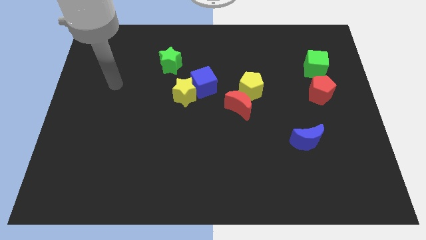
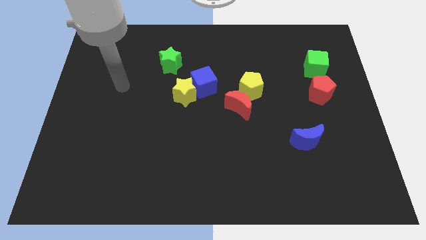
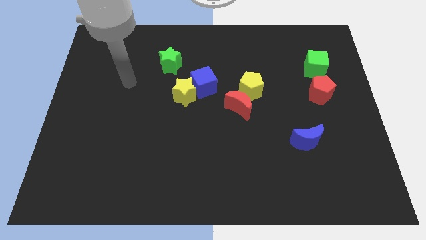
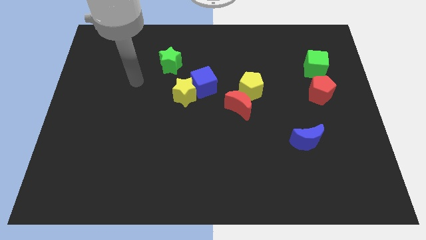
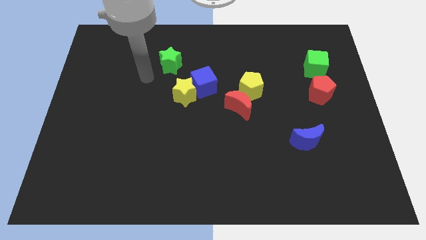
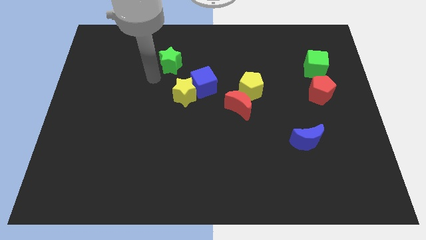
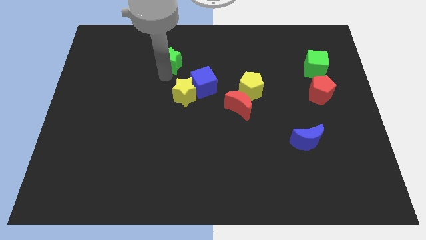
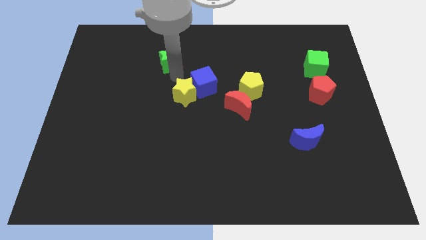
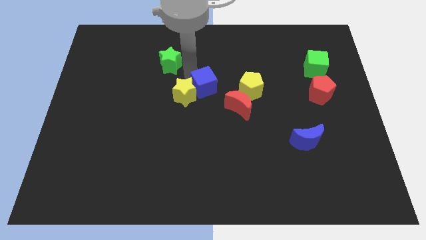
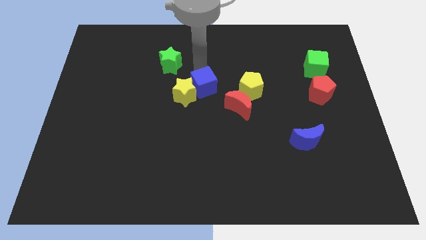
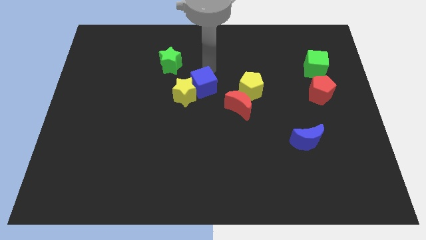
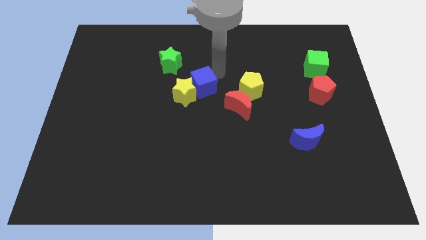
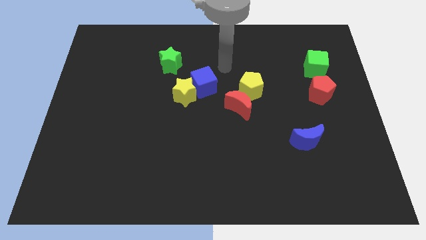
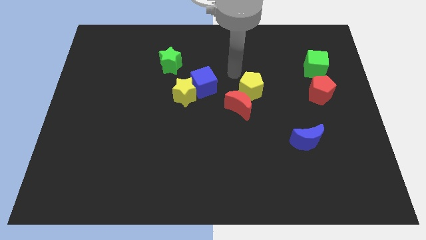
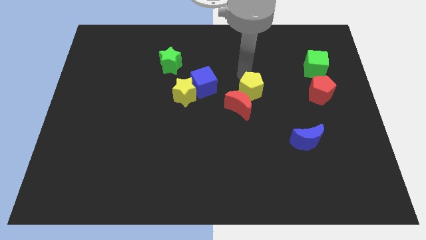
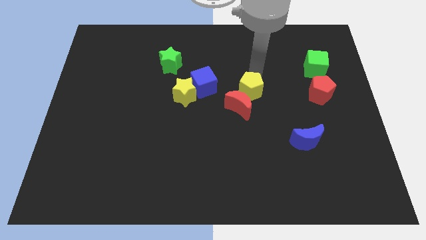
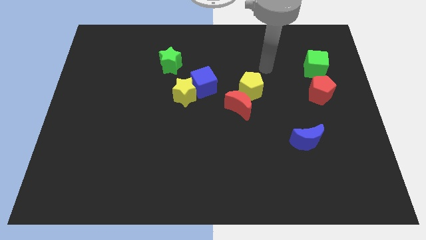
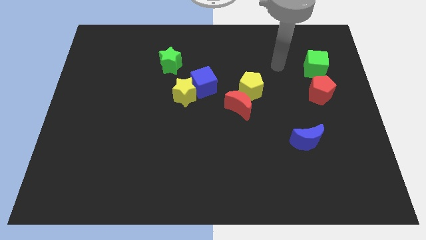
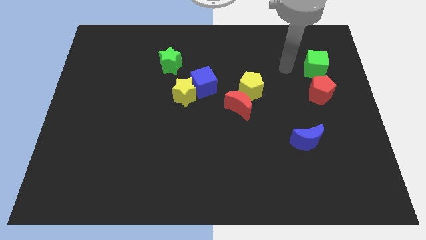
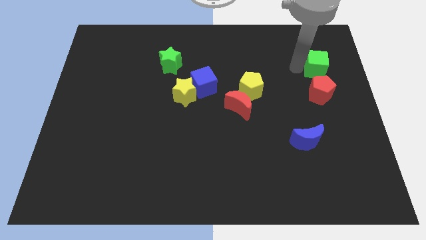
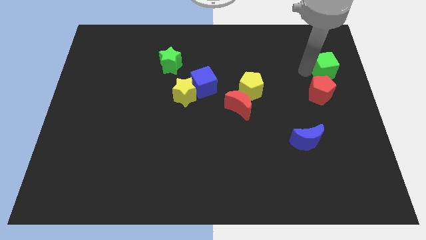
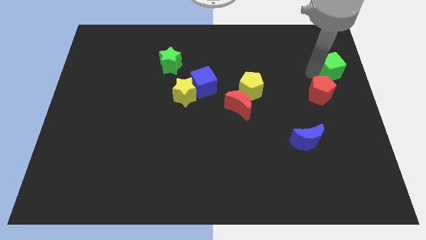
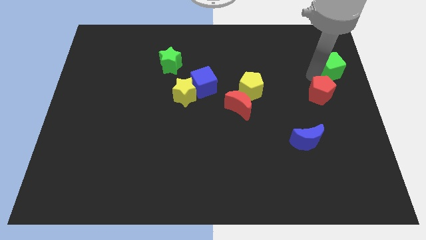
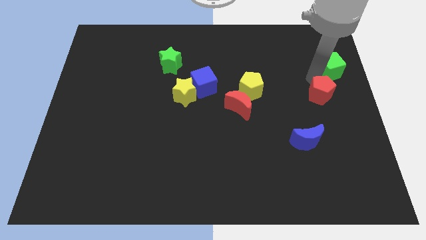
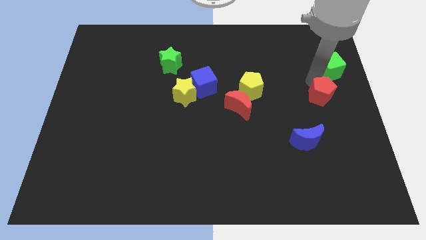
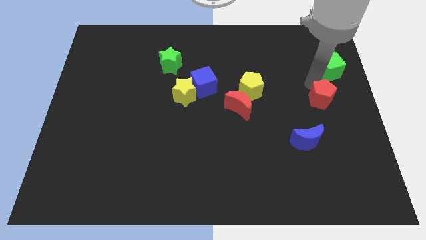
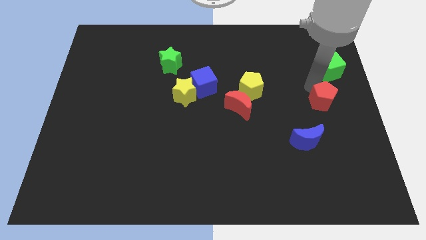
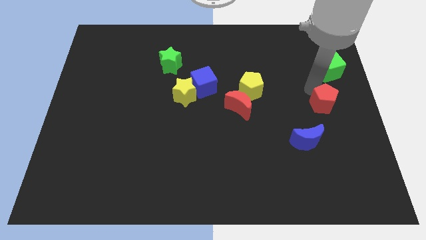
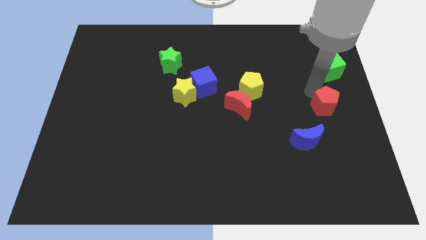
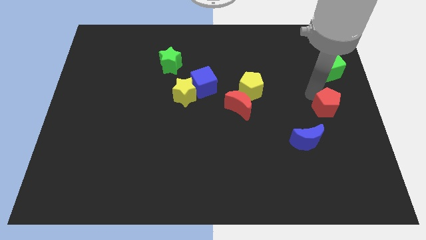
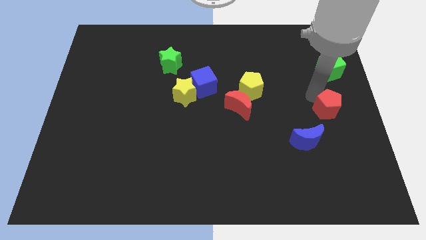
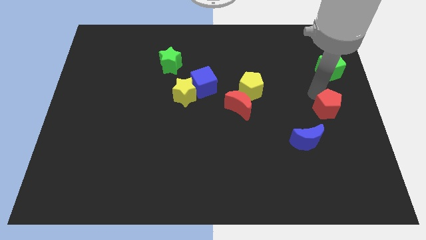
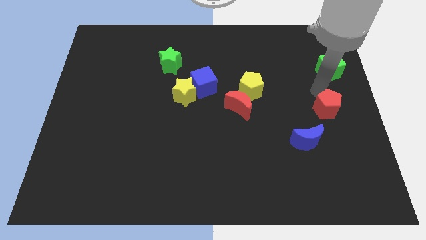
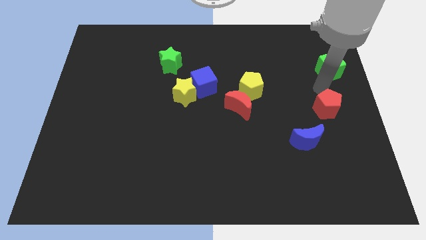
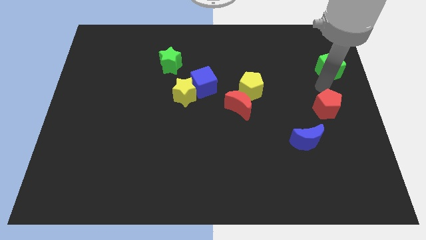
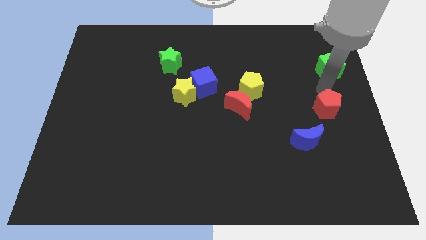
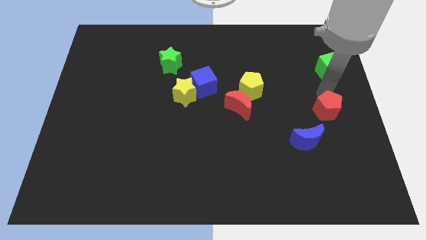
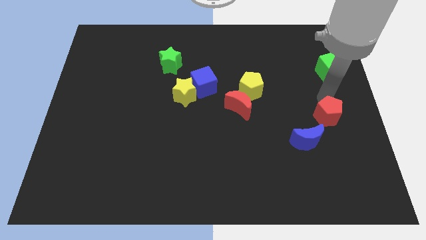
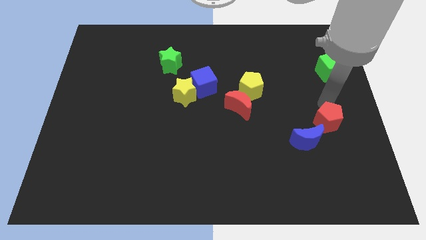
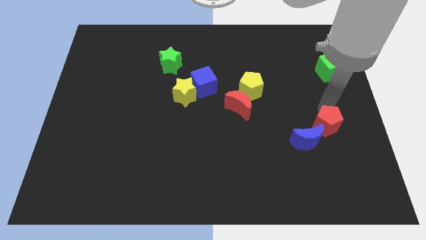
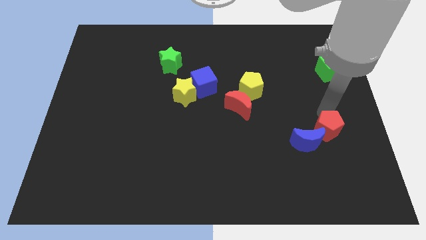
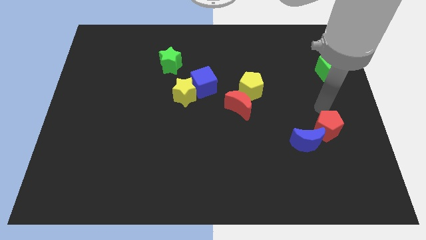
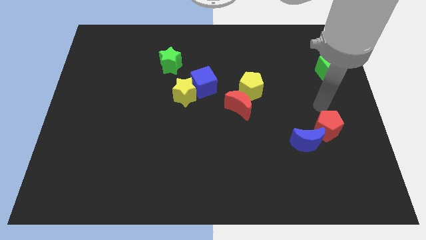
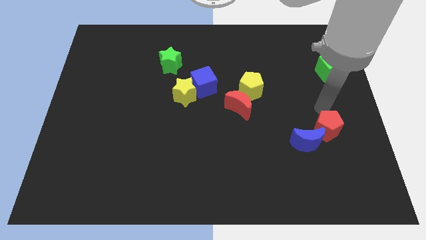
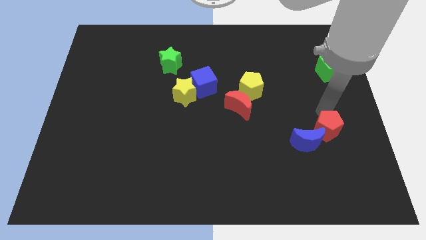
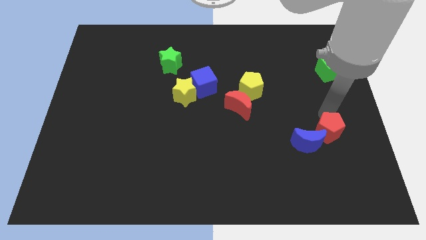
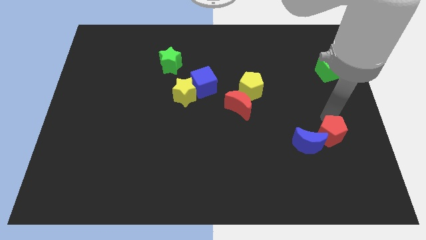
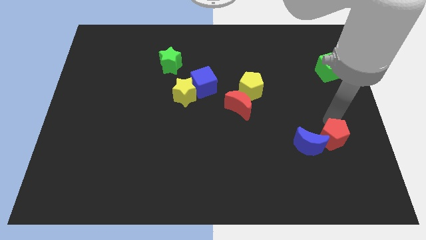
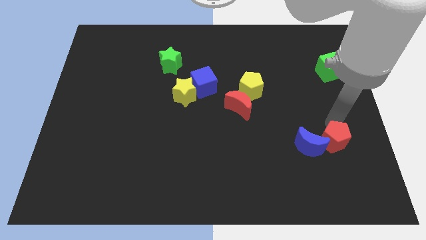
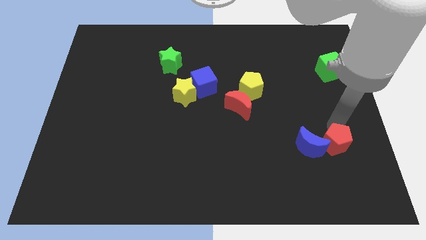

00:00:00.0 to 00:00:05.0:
push the red pentagon to the bottom right side of the blue moon

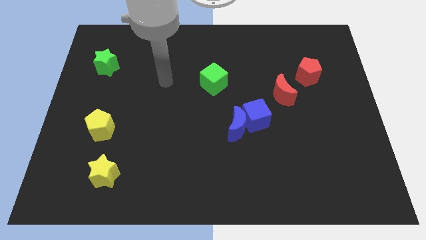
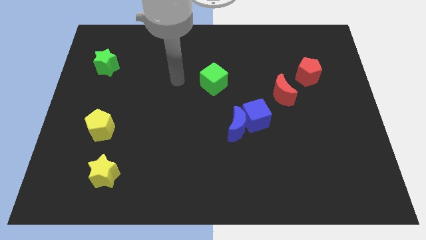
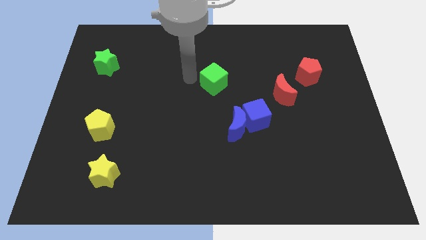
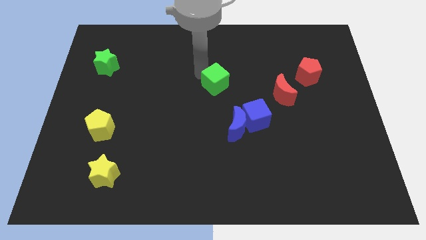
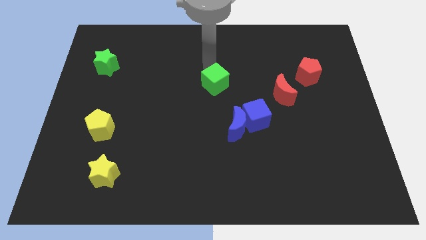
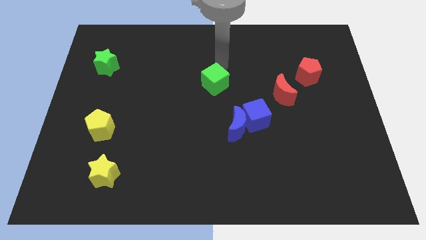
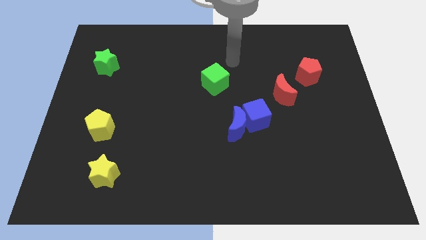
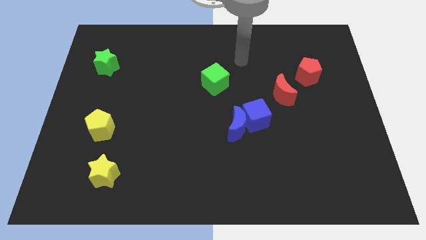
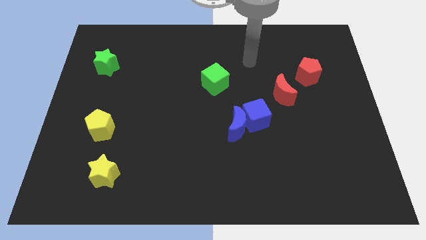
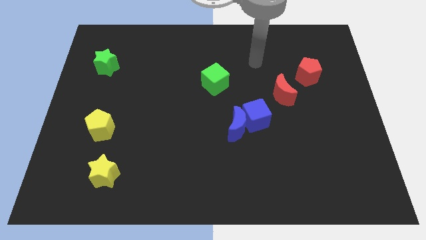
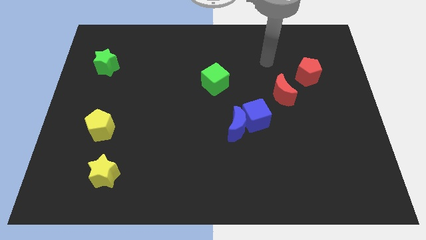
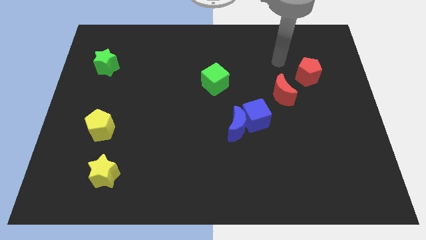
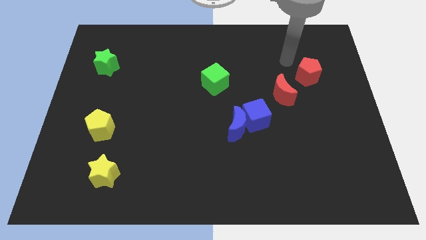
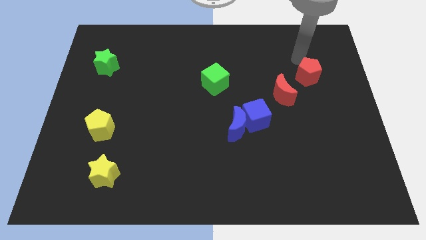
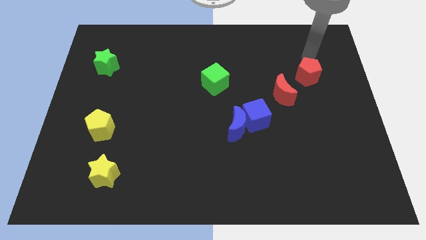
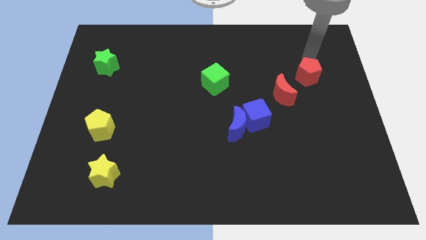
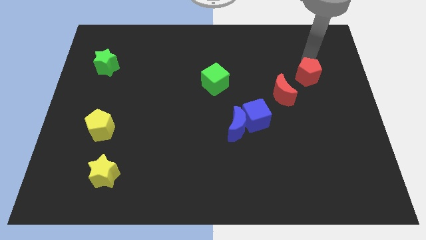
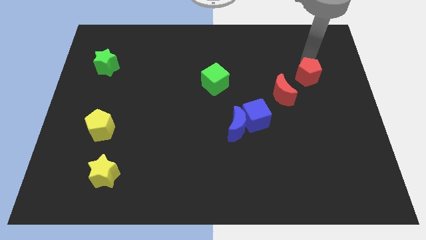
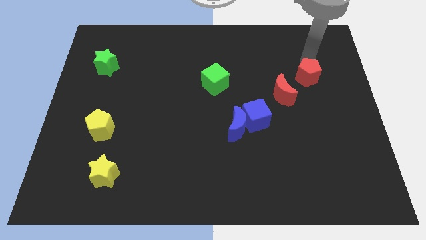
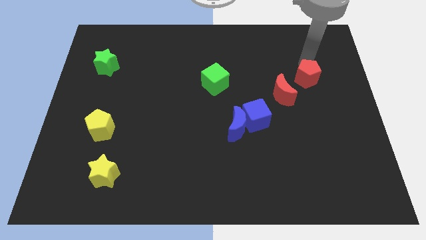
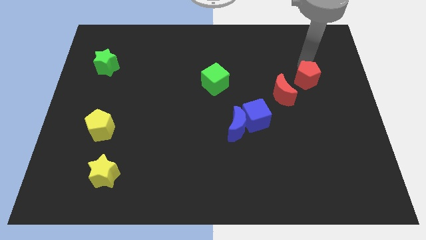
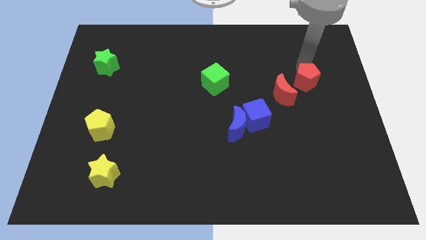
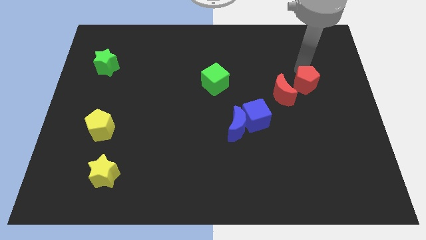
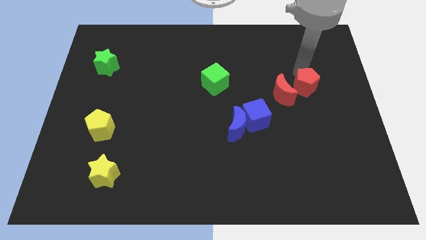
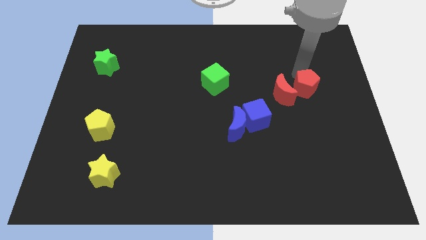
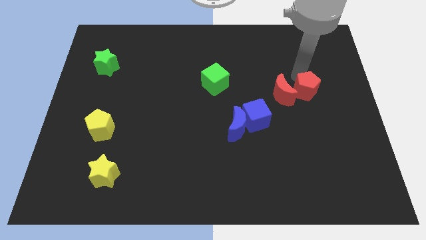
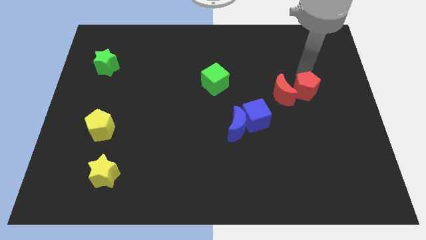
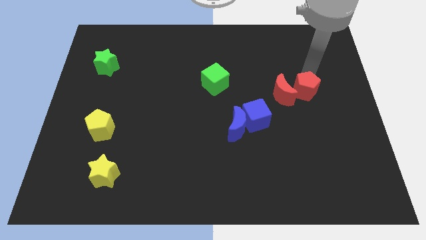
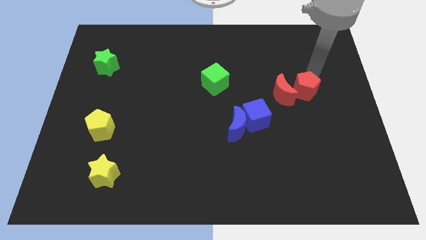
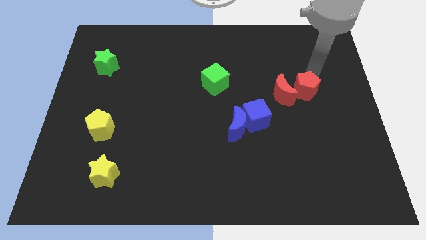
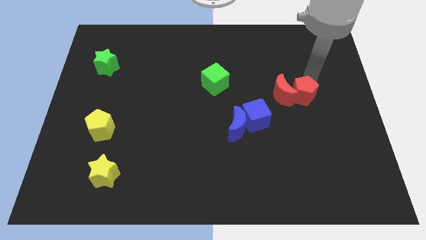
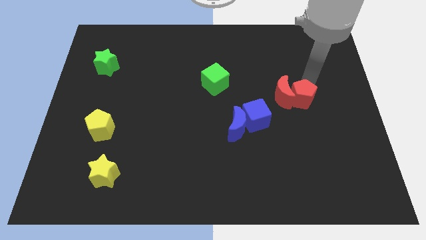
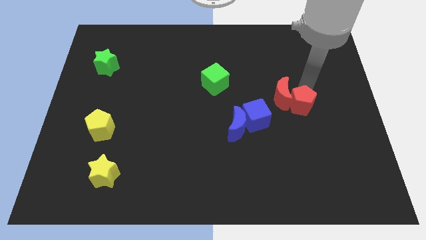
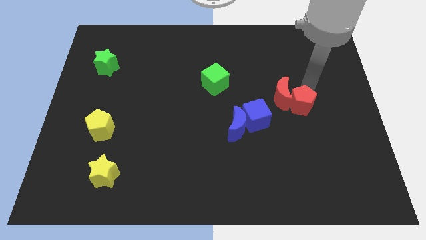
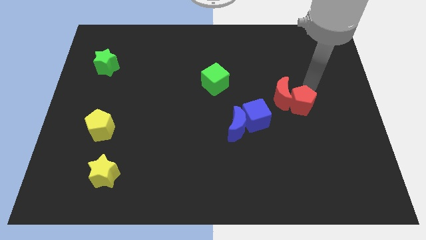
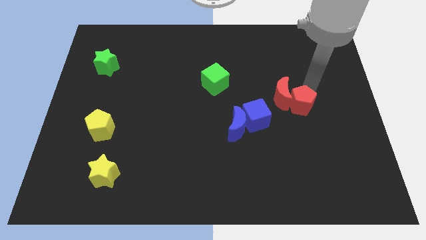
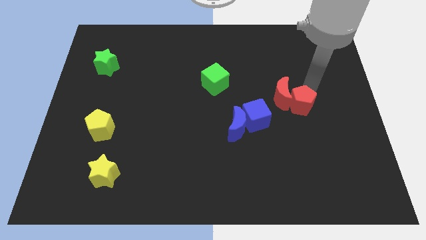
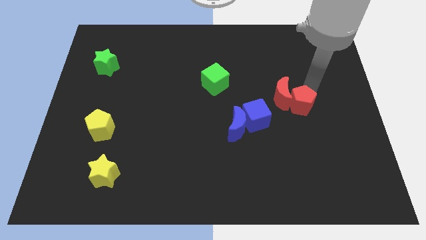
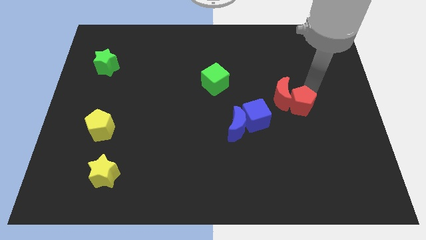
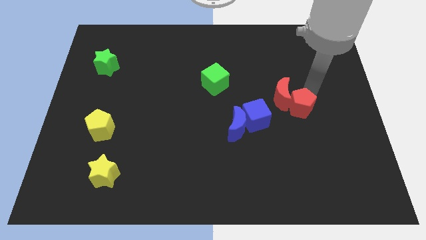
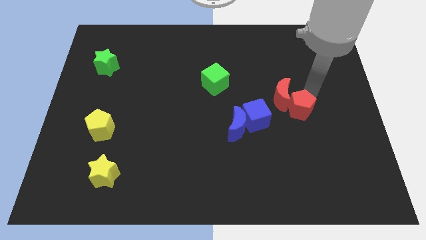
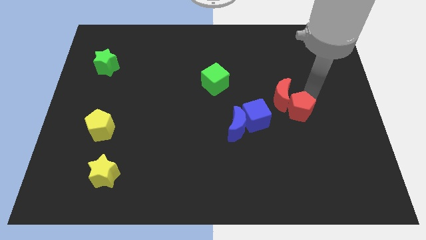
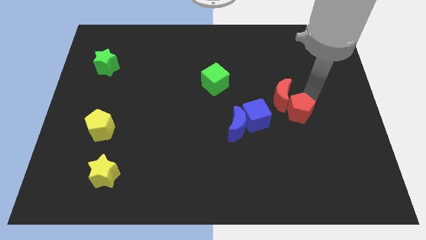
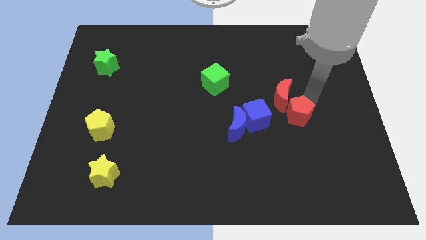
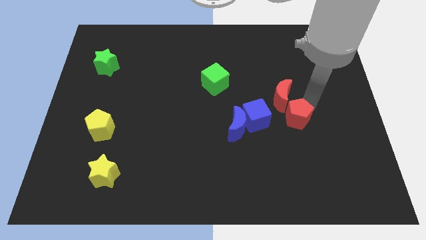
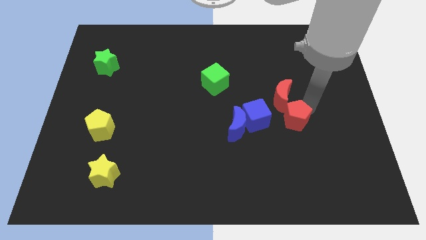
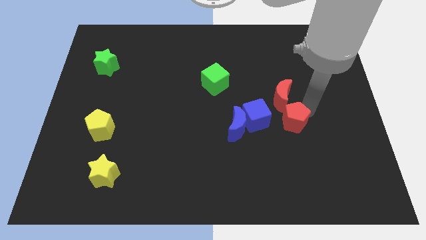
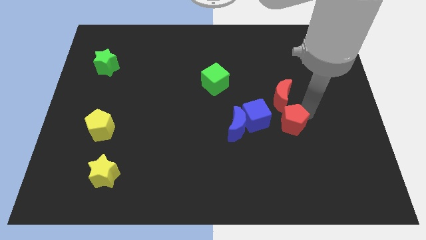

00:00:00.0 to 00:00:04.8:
put the red pentagon to the bottom right of the blue cube
